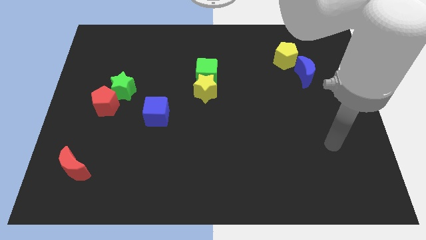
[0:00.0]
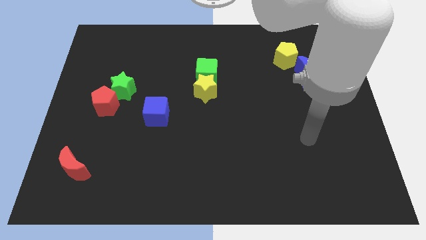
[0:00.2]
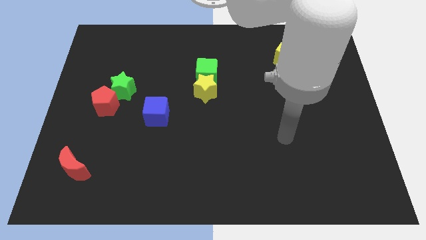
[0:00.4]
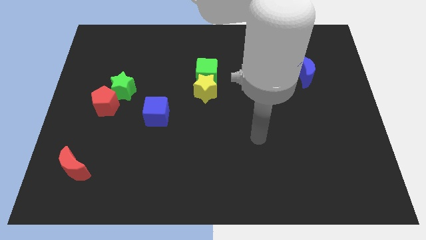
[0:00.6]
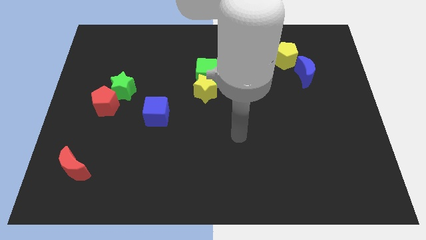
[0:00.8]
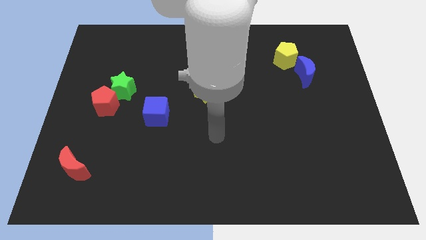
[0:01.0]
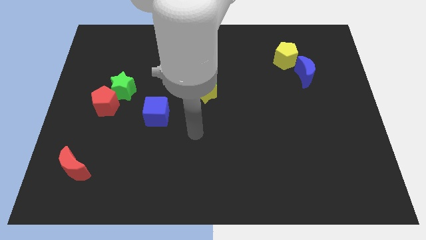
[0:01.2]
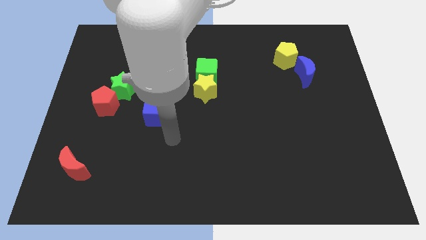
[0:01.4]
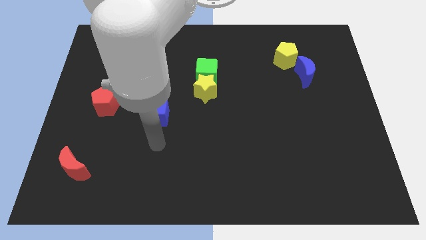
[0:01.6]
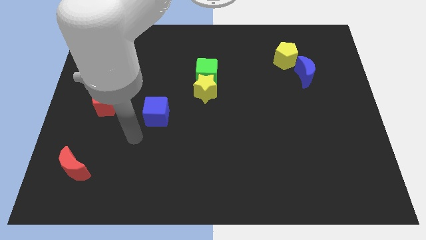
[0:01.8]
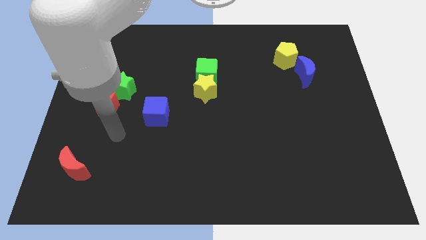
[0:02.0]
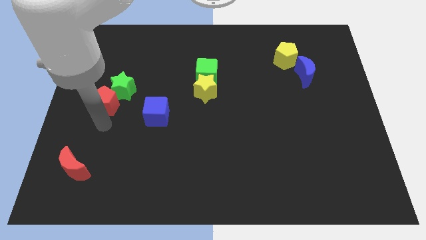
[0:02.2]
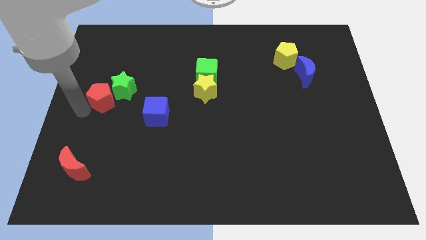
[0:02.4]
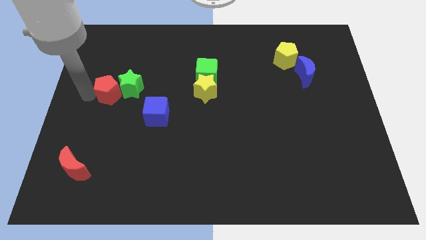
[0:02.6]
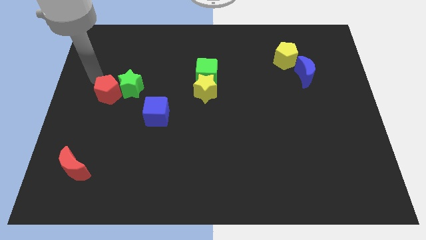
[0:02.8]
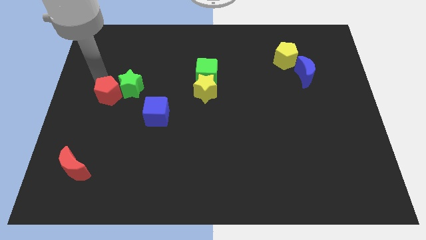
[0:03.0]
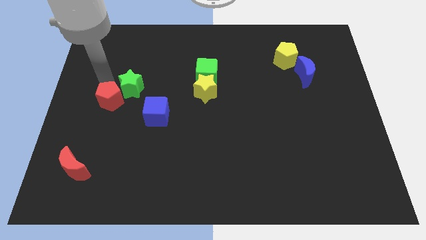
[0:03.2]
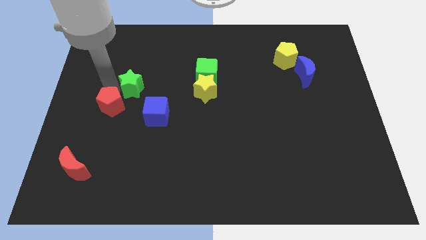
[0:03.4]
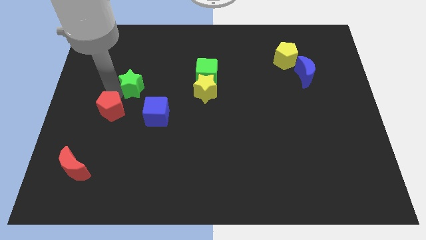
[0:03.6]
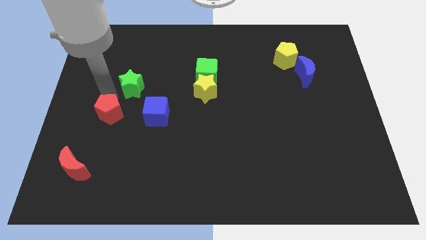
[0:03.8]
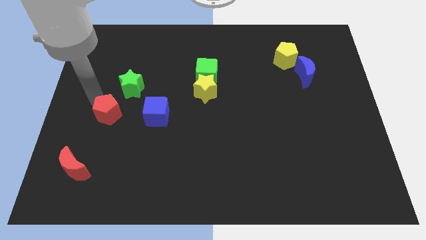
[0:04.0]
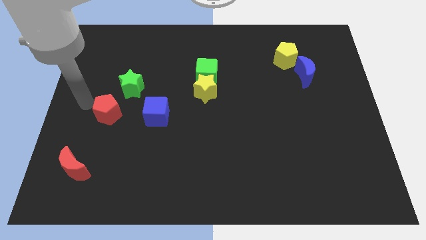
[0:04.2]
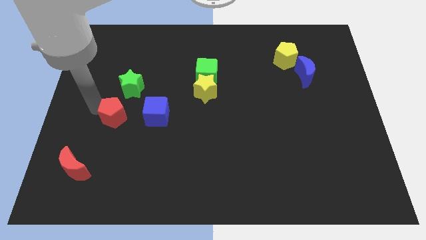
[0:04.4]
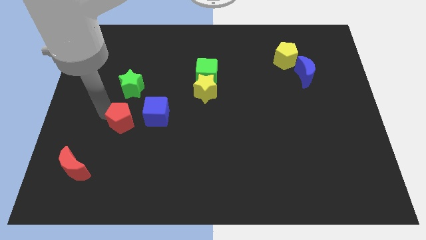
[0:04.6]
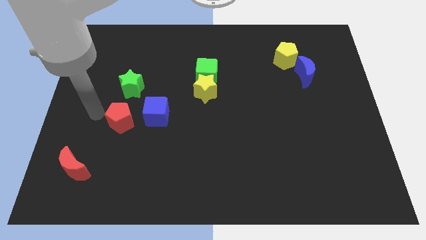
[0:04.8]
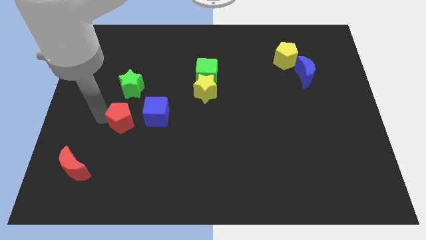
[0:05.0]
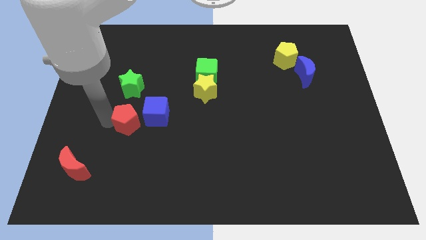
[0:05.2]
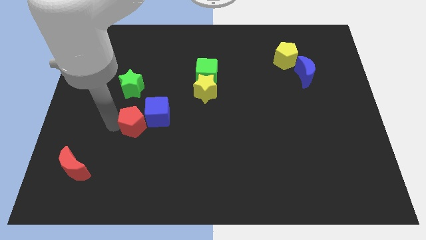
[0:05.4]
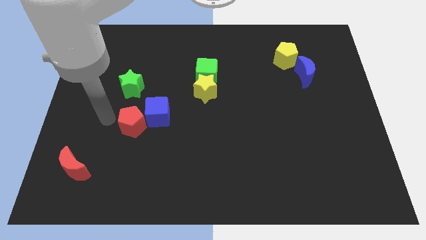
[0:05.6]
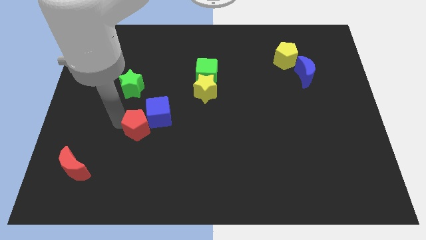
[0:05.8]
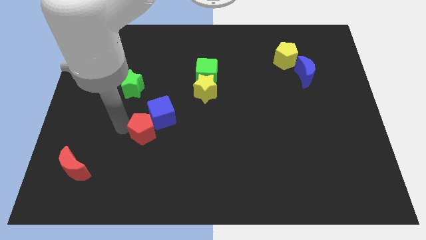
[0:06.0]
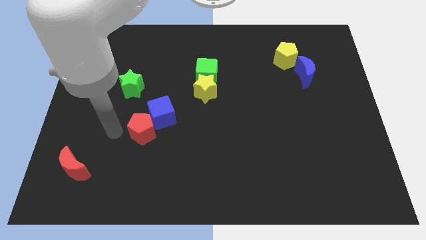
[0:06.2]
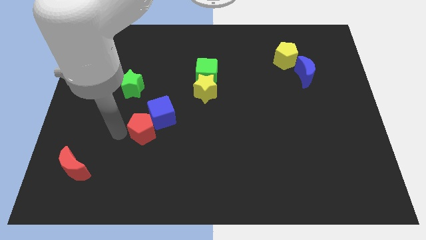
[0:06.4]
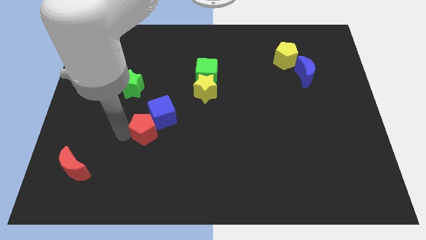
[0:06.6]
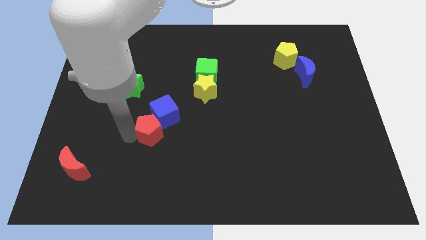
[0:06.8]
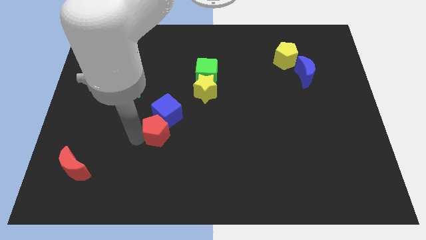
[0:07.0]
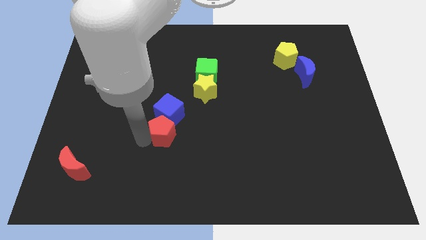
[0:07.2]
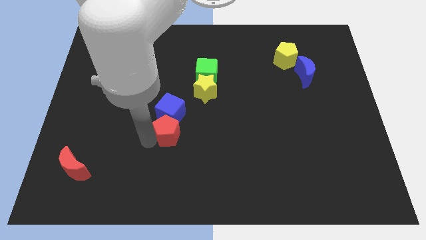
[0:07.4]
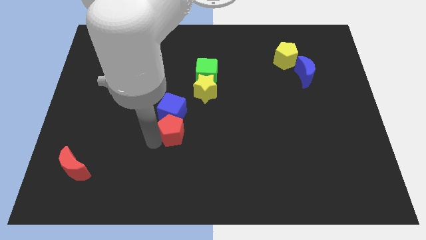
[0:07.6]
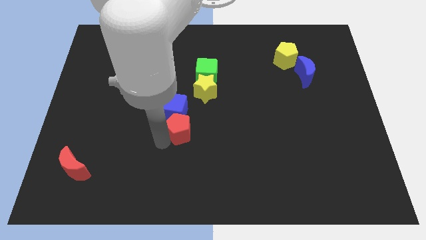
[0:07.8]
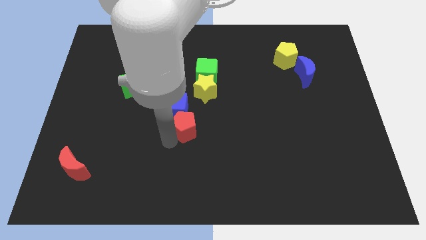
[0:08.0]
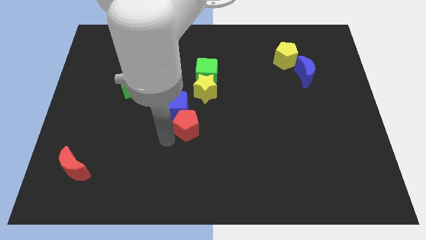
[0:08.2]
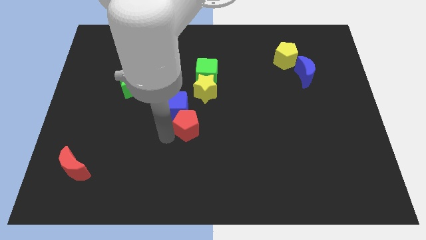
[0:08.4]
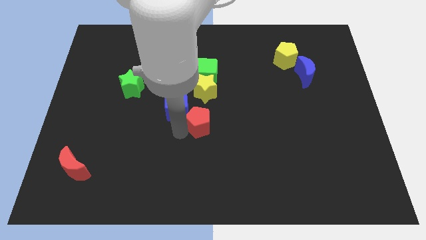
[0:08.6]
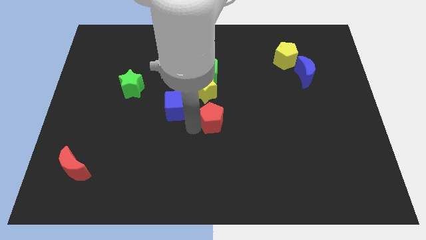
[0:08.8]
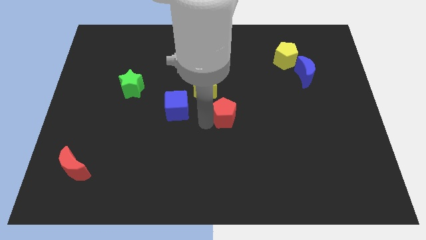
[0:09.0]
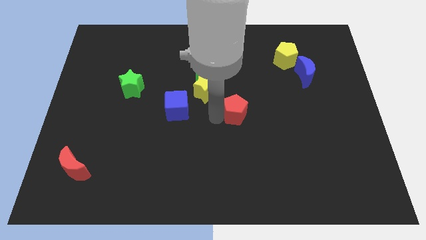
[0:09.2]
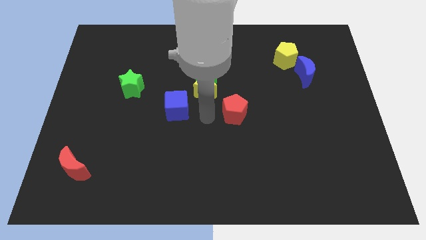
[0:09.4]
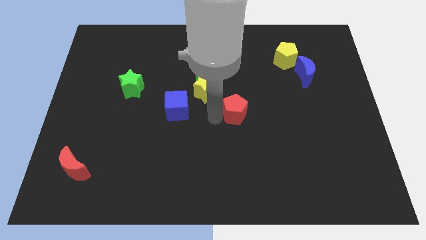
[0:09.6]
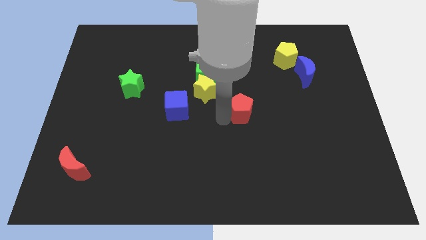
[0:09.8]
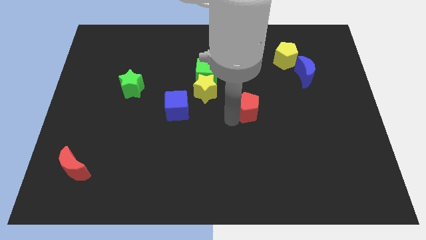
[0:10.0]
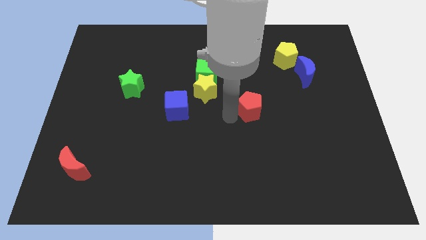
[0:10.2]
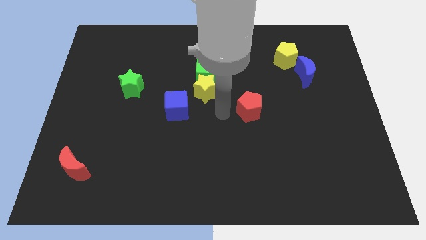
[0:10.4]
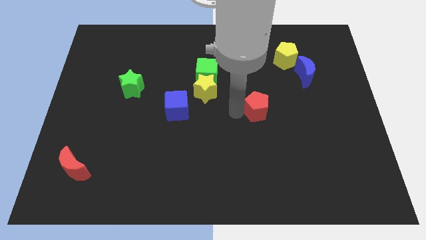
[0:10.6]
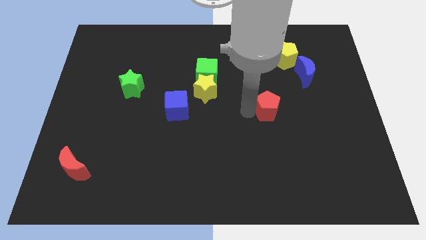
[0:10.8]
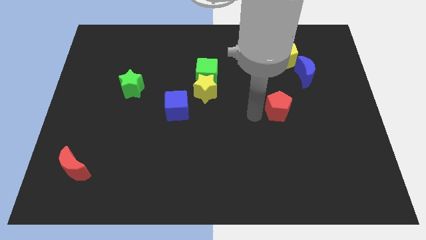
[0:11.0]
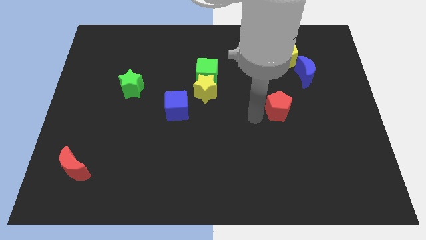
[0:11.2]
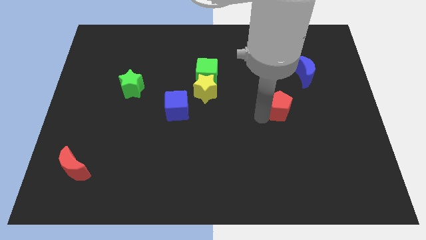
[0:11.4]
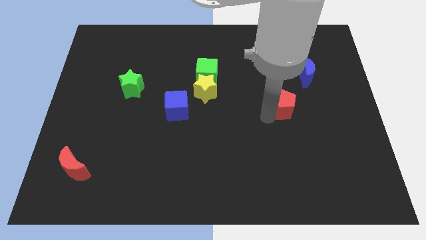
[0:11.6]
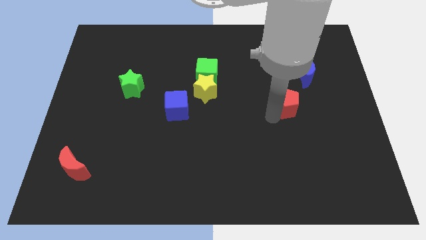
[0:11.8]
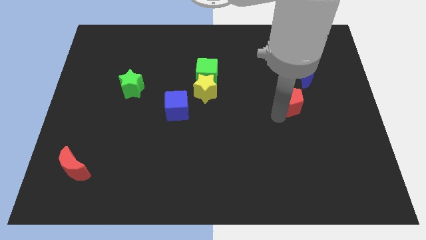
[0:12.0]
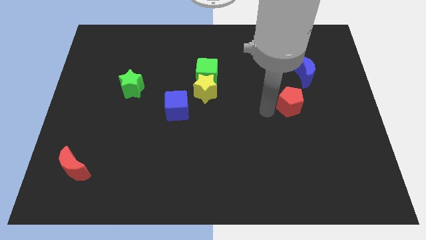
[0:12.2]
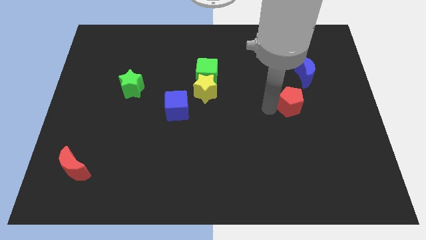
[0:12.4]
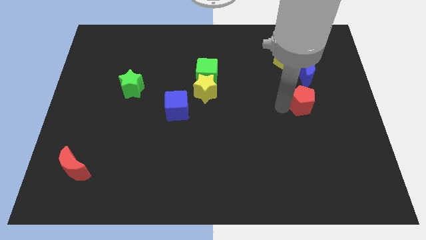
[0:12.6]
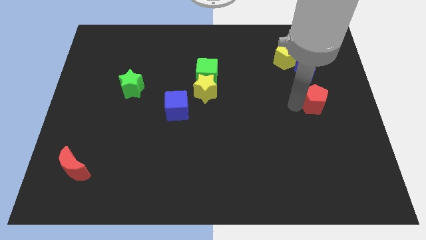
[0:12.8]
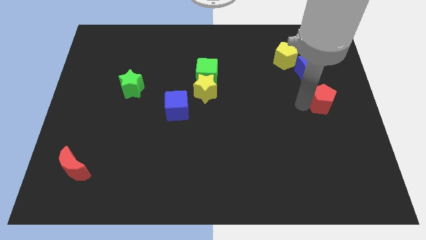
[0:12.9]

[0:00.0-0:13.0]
slide the red pentagon to the center right

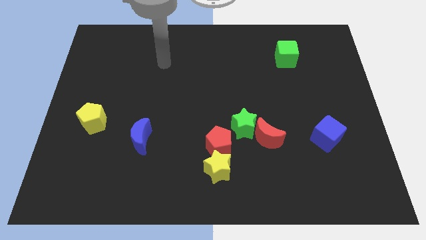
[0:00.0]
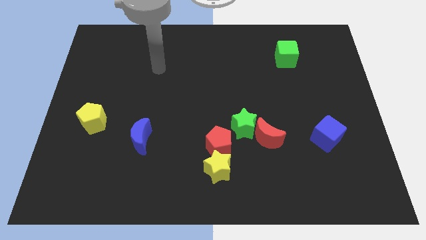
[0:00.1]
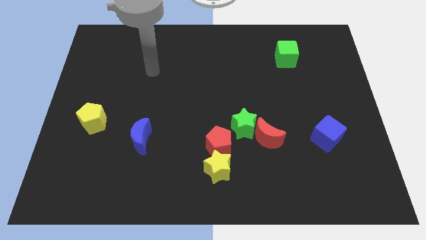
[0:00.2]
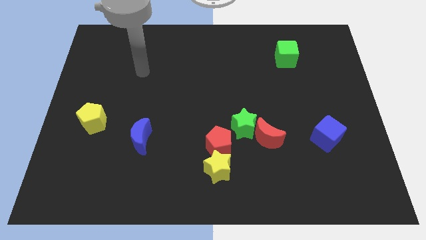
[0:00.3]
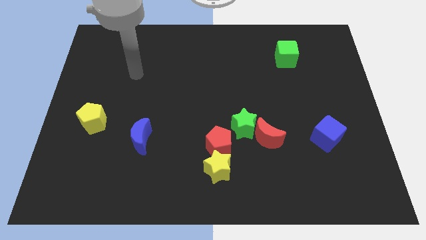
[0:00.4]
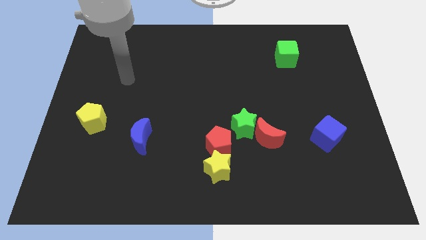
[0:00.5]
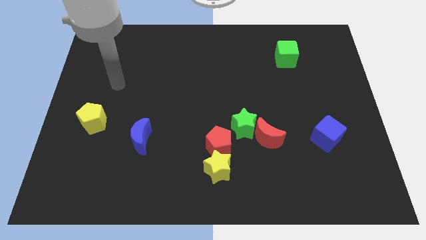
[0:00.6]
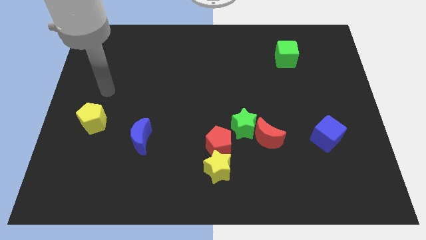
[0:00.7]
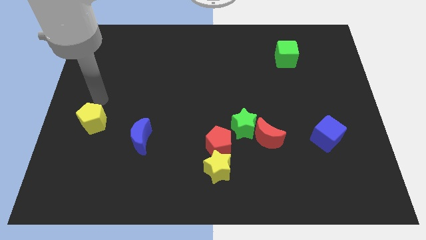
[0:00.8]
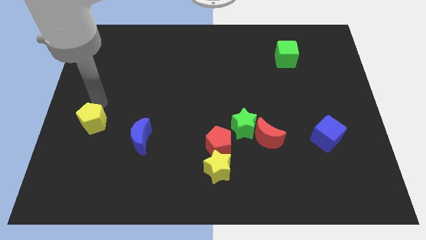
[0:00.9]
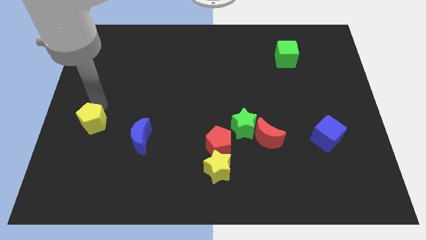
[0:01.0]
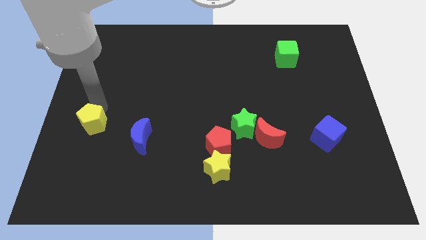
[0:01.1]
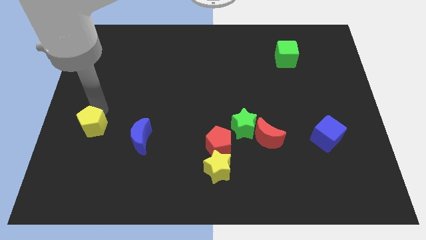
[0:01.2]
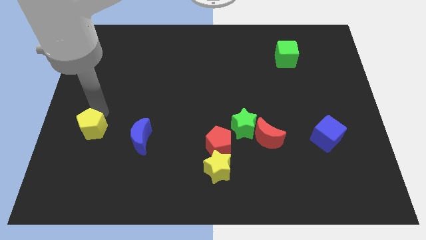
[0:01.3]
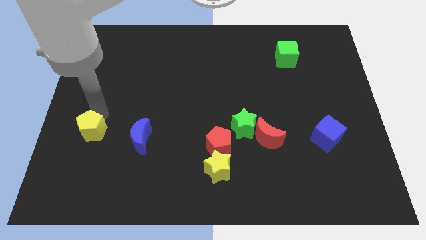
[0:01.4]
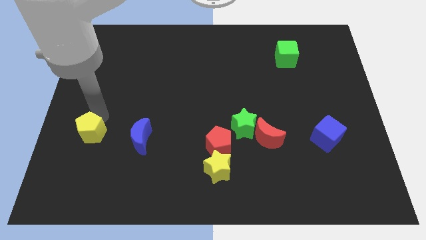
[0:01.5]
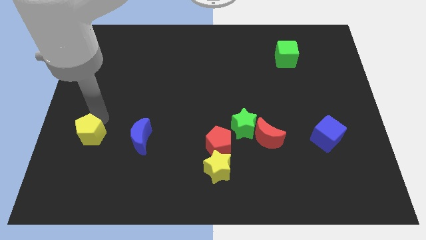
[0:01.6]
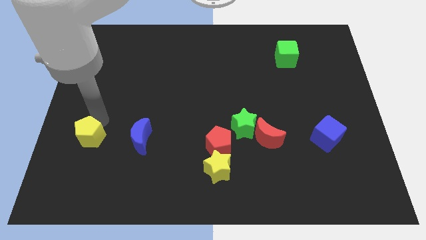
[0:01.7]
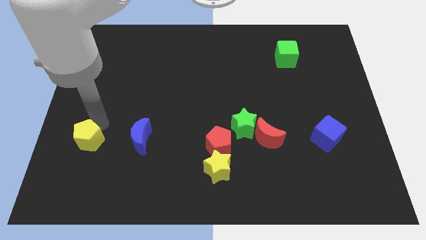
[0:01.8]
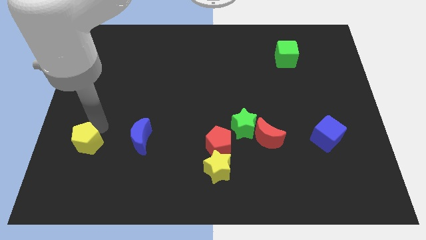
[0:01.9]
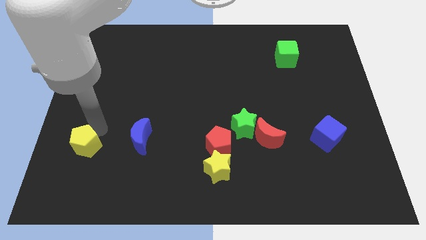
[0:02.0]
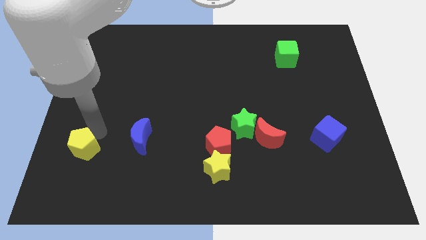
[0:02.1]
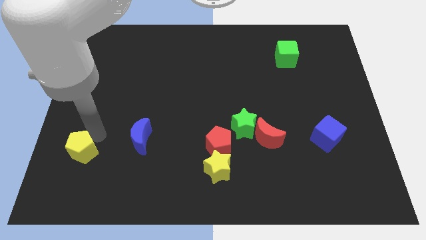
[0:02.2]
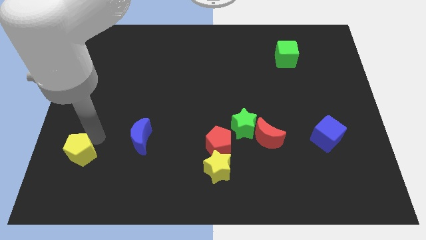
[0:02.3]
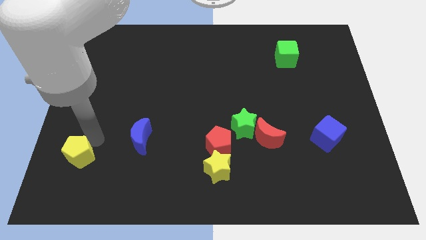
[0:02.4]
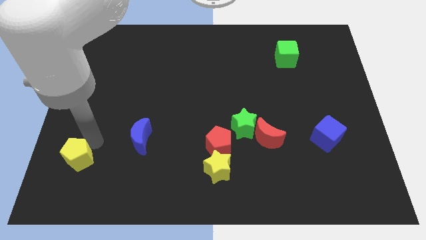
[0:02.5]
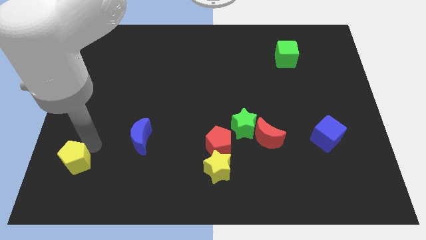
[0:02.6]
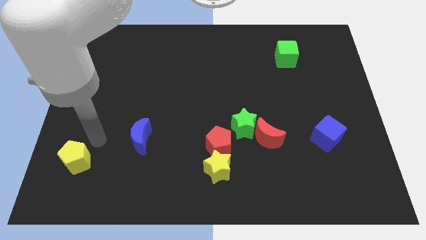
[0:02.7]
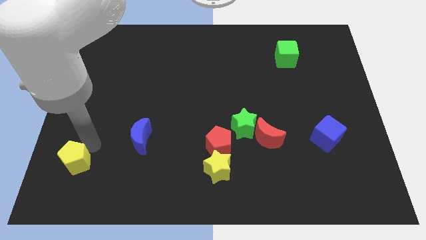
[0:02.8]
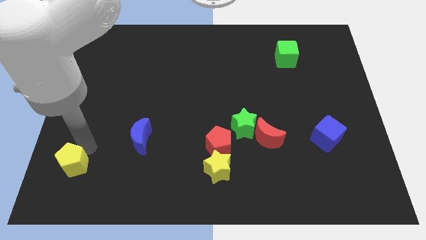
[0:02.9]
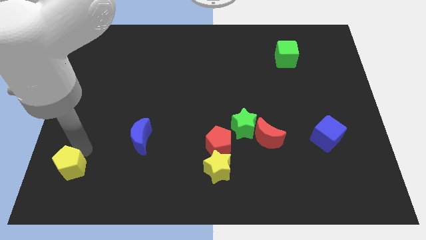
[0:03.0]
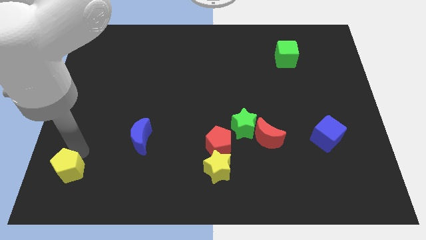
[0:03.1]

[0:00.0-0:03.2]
put the yellow pentagon to the bottom left of the board
